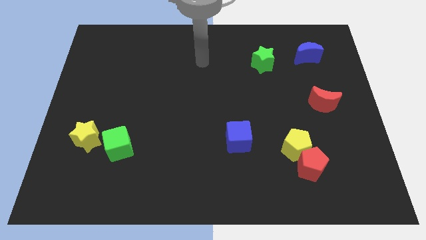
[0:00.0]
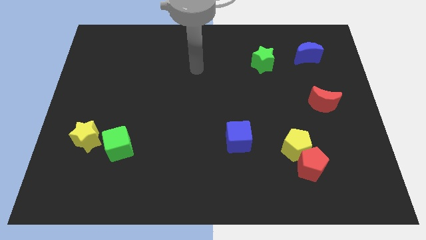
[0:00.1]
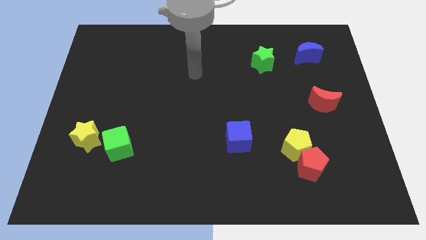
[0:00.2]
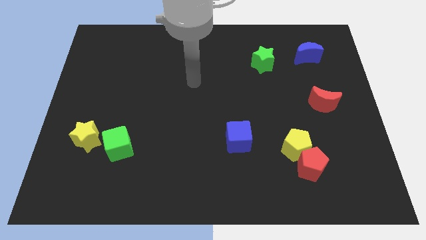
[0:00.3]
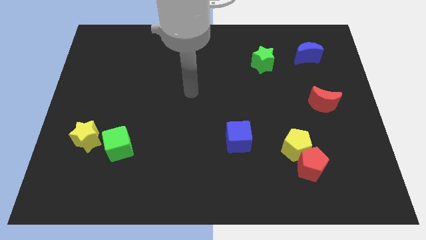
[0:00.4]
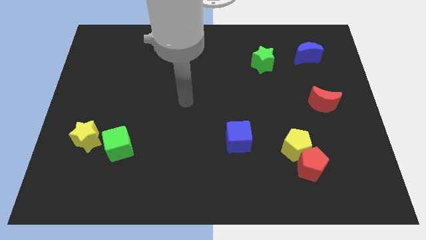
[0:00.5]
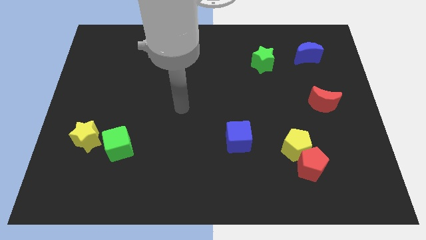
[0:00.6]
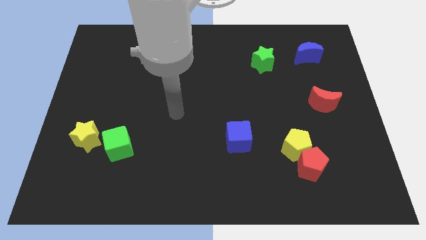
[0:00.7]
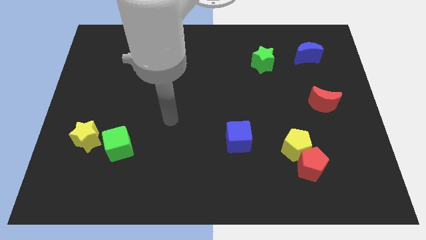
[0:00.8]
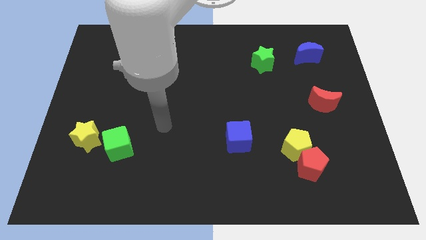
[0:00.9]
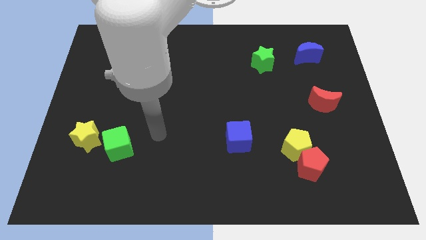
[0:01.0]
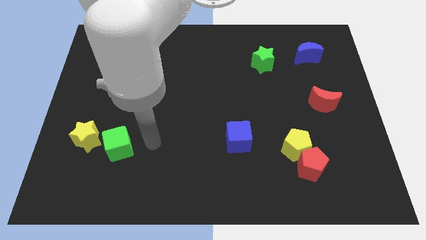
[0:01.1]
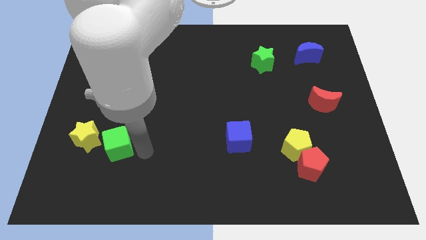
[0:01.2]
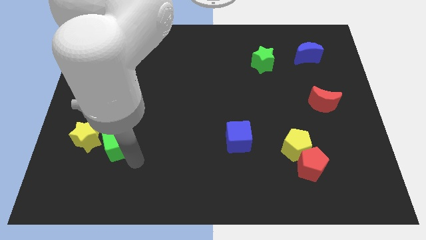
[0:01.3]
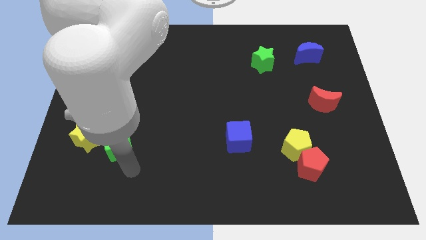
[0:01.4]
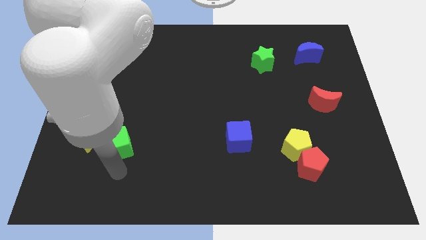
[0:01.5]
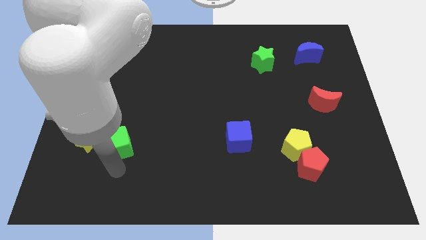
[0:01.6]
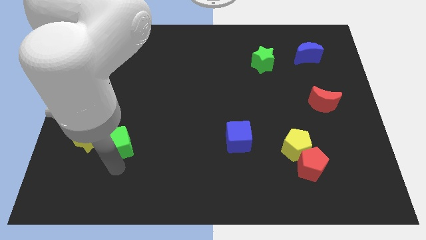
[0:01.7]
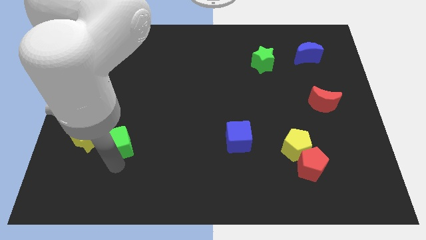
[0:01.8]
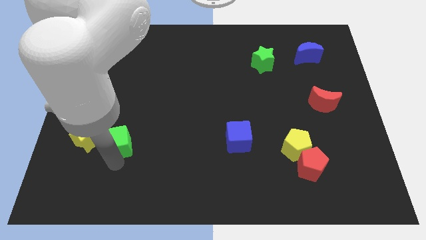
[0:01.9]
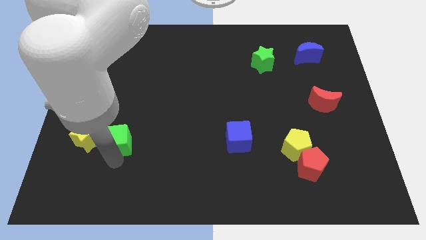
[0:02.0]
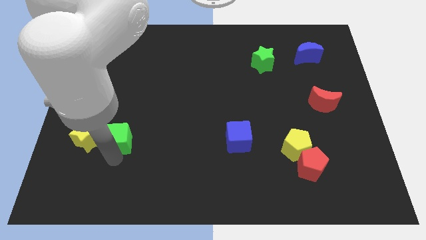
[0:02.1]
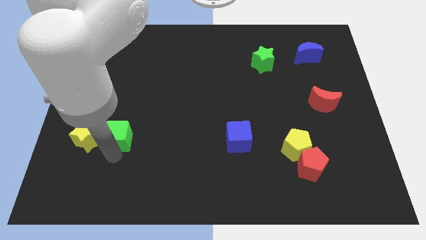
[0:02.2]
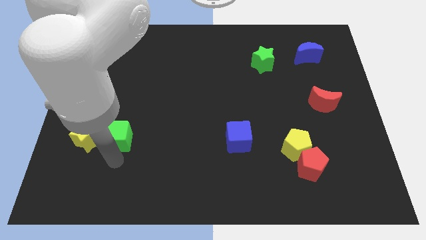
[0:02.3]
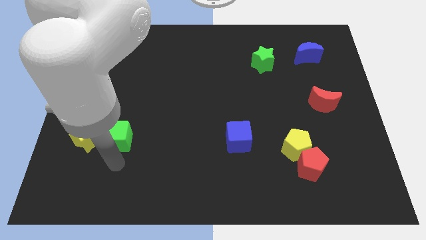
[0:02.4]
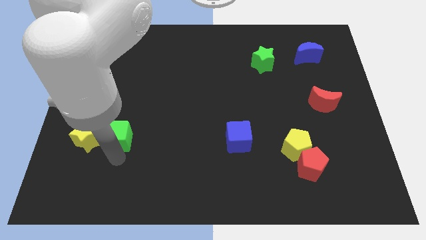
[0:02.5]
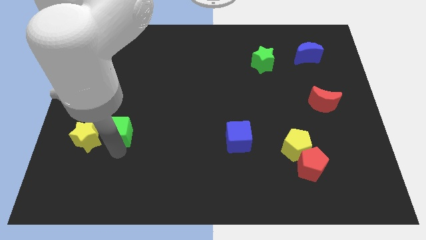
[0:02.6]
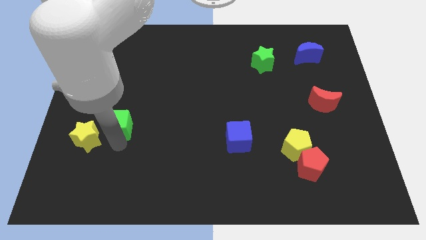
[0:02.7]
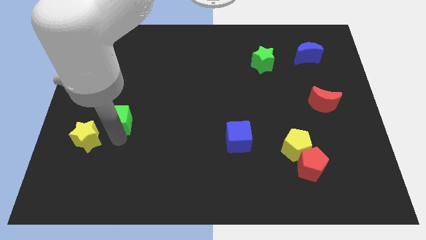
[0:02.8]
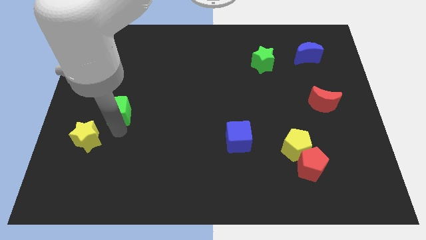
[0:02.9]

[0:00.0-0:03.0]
slide the green cube slightly up

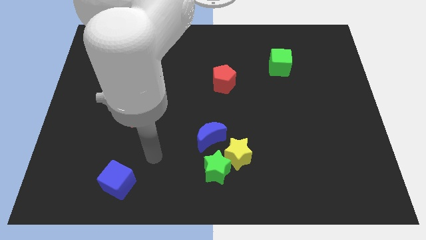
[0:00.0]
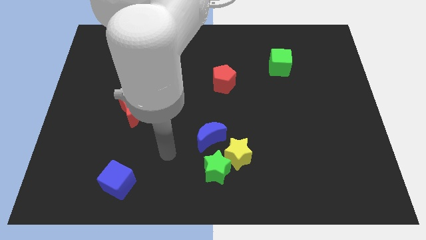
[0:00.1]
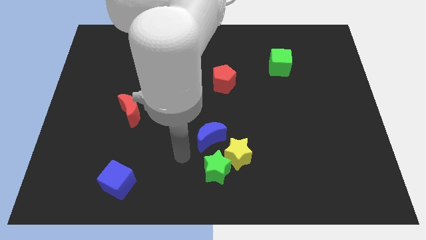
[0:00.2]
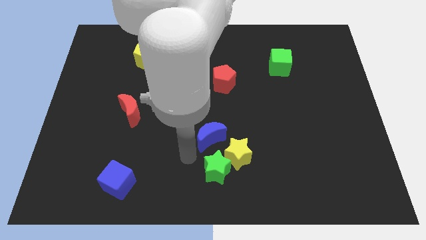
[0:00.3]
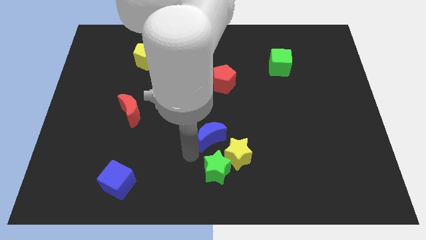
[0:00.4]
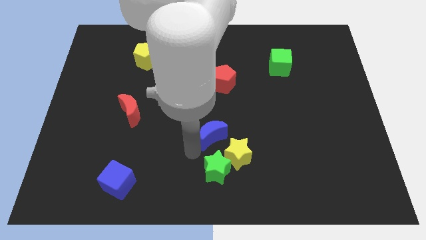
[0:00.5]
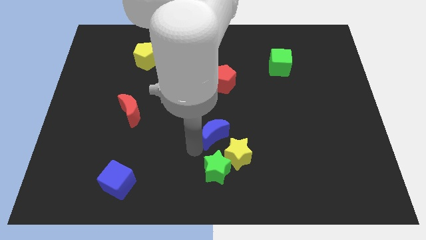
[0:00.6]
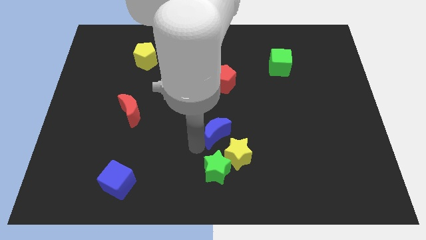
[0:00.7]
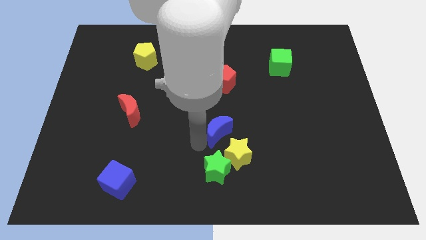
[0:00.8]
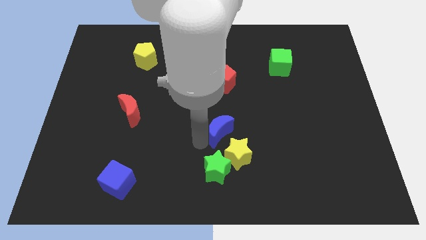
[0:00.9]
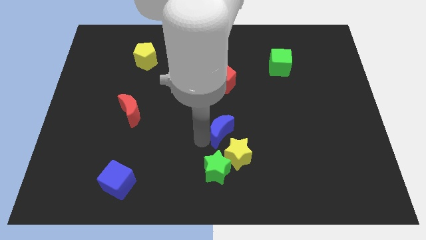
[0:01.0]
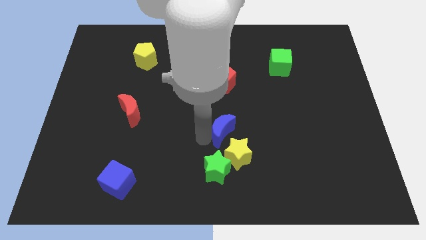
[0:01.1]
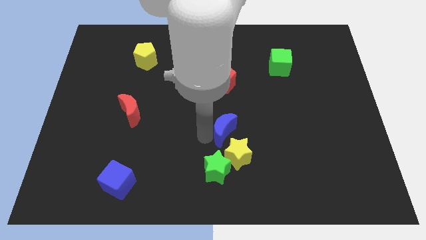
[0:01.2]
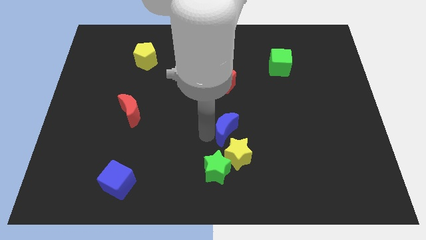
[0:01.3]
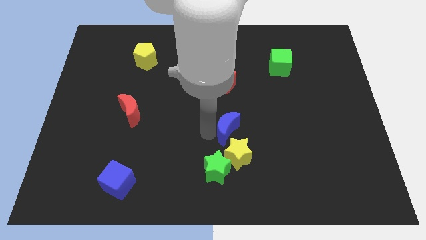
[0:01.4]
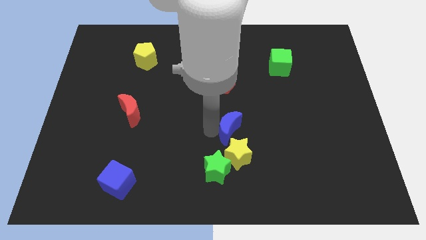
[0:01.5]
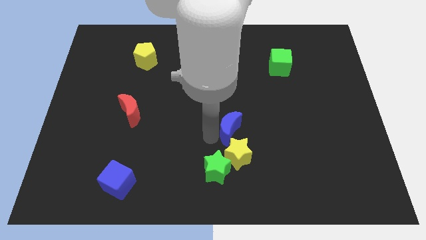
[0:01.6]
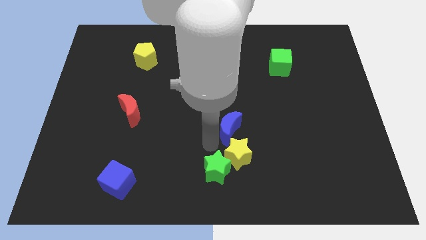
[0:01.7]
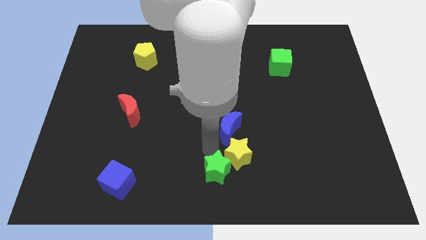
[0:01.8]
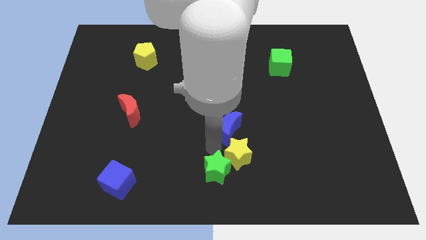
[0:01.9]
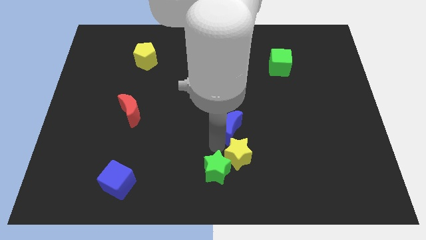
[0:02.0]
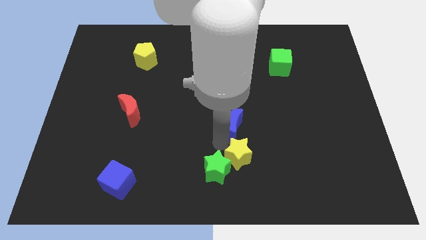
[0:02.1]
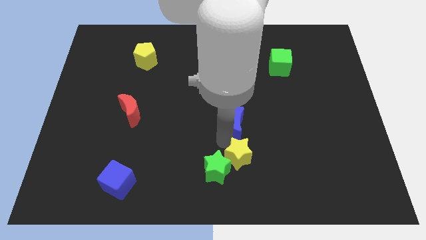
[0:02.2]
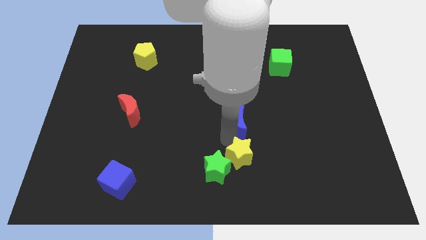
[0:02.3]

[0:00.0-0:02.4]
slide the blue moon a bit upwards and to the right diagonally

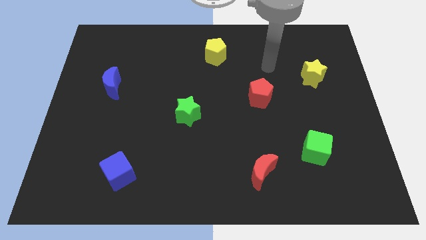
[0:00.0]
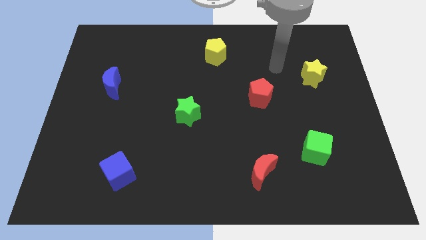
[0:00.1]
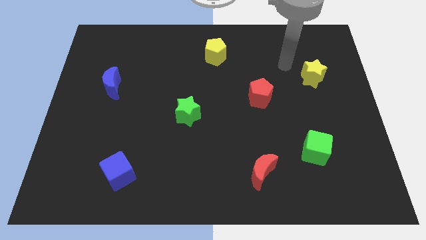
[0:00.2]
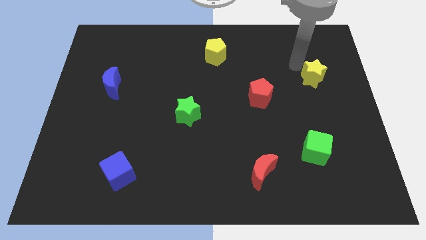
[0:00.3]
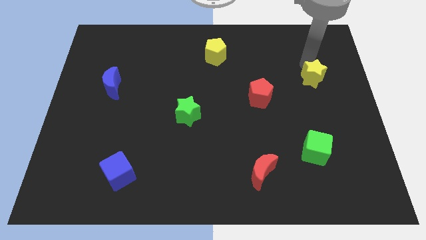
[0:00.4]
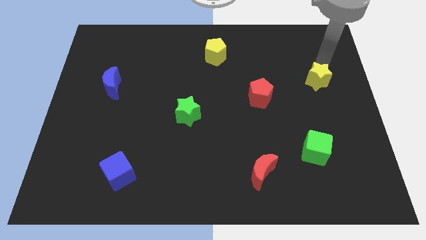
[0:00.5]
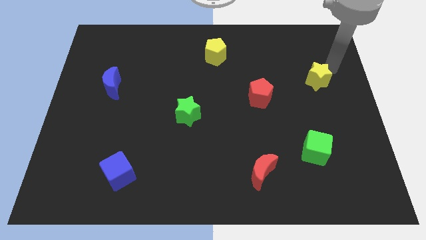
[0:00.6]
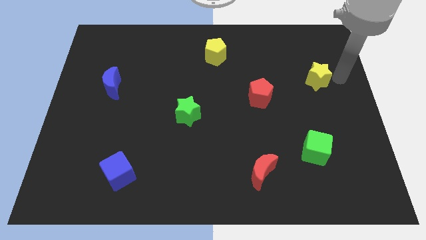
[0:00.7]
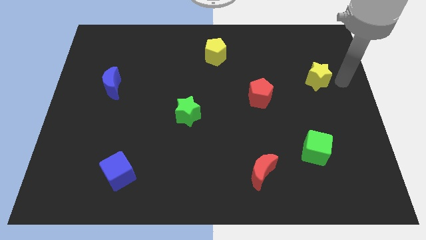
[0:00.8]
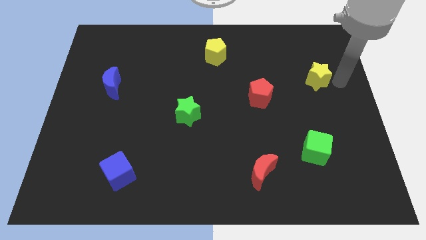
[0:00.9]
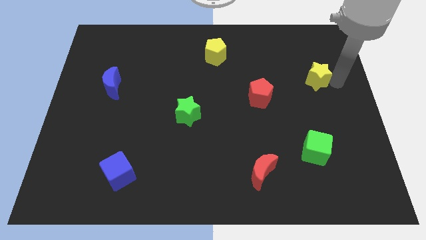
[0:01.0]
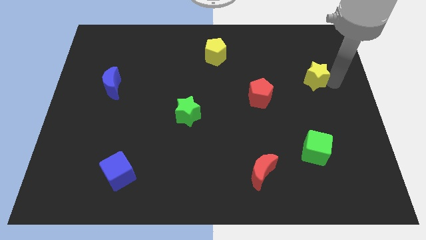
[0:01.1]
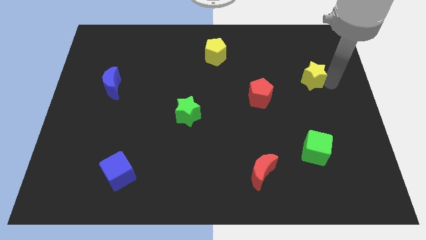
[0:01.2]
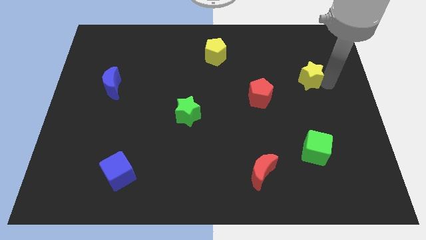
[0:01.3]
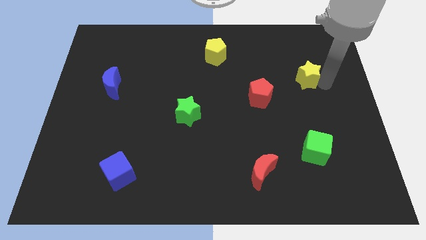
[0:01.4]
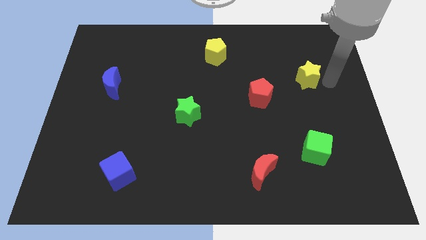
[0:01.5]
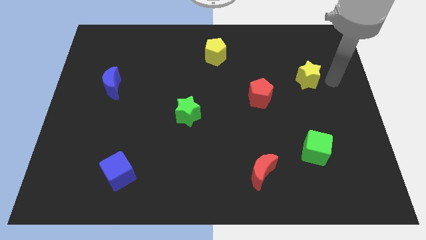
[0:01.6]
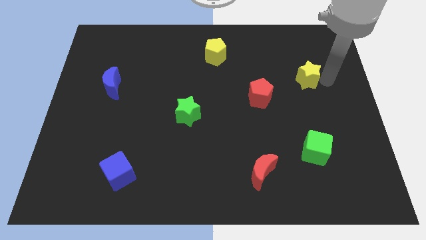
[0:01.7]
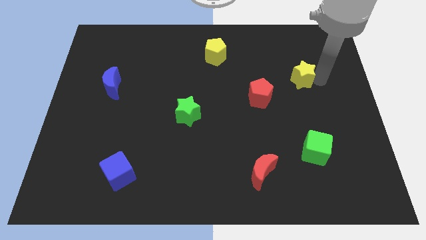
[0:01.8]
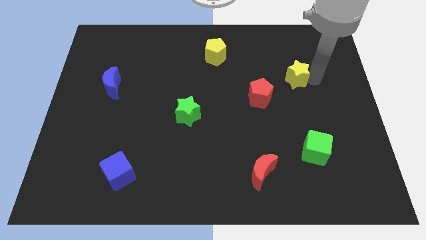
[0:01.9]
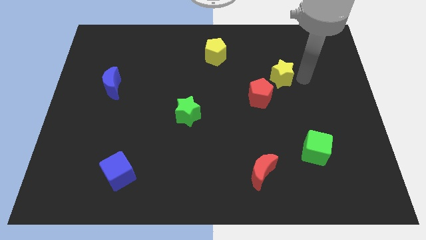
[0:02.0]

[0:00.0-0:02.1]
slightly push the yellow star to the left

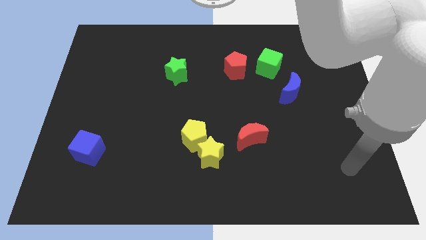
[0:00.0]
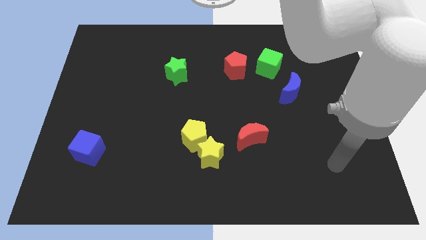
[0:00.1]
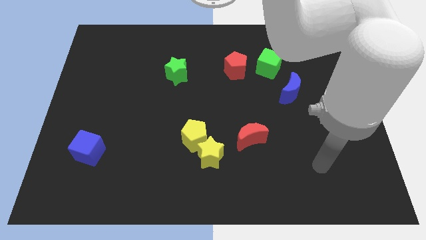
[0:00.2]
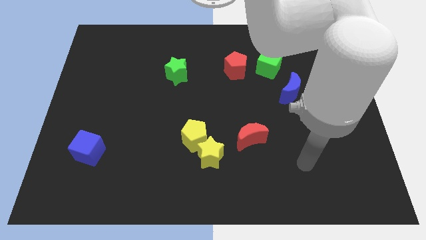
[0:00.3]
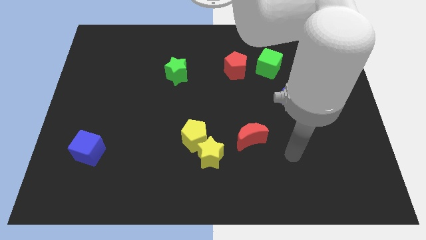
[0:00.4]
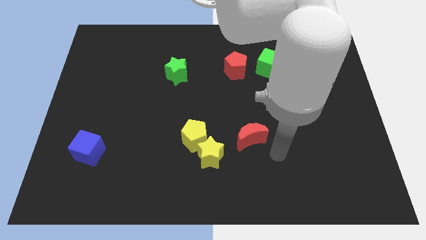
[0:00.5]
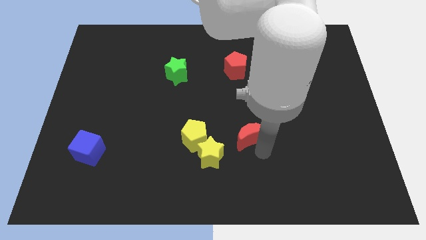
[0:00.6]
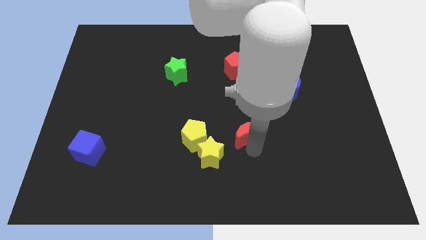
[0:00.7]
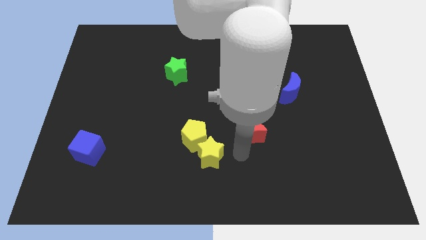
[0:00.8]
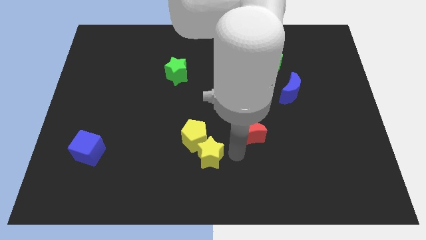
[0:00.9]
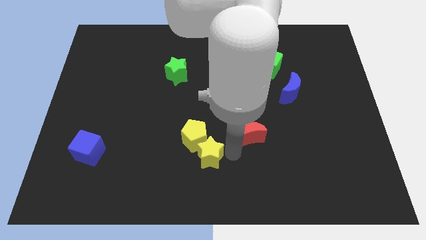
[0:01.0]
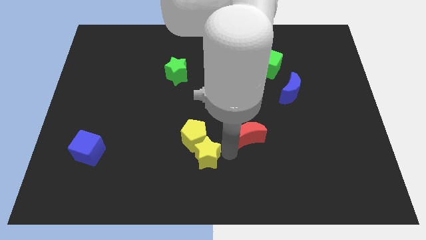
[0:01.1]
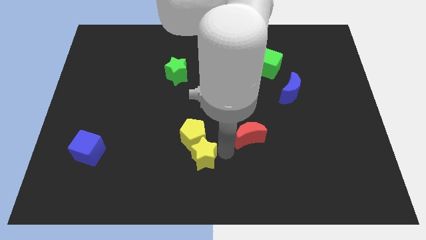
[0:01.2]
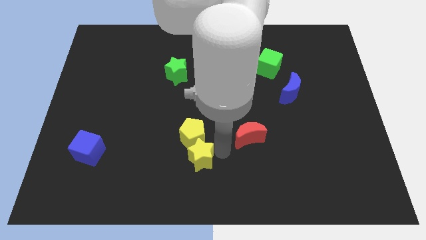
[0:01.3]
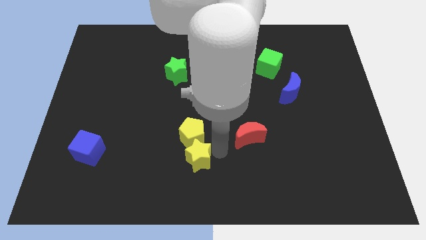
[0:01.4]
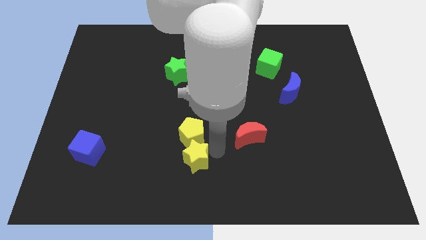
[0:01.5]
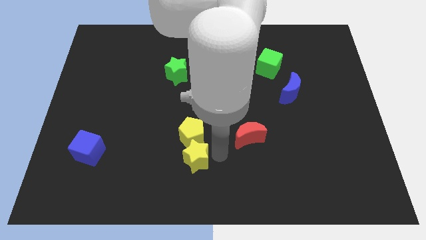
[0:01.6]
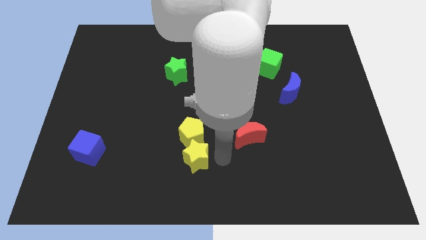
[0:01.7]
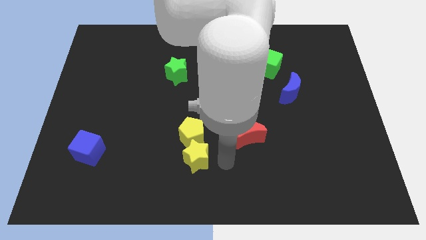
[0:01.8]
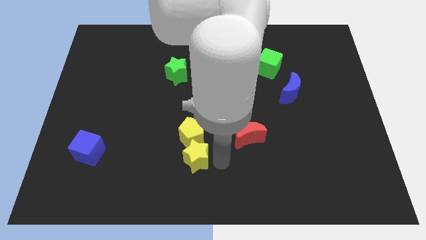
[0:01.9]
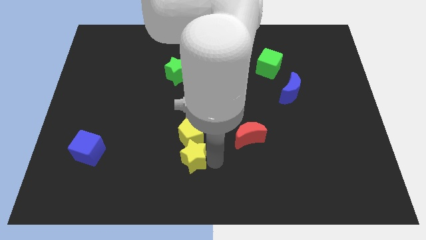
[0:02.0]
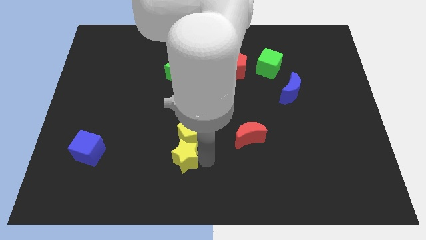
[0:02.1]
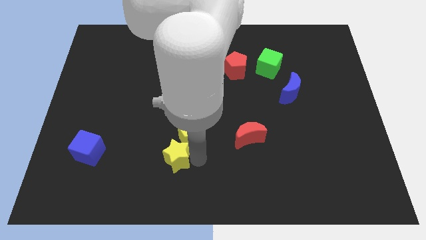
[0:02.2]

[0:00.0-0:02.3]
push the yellow star left somewhat
